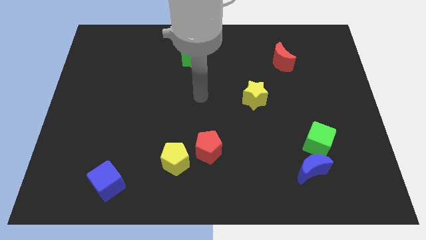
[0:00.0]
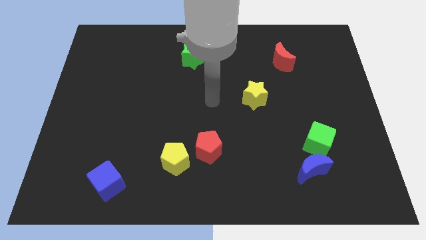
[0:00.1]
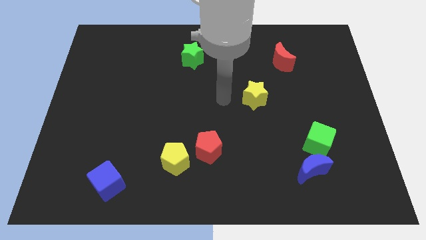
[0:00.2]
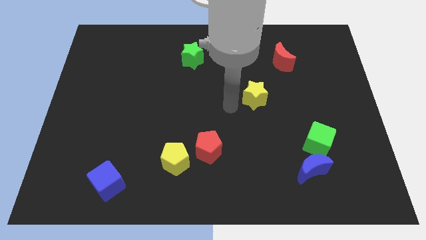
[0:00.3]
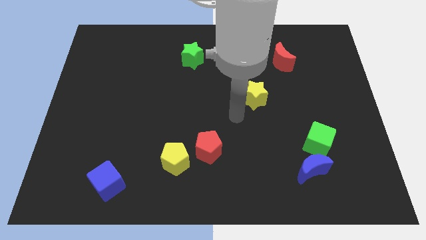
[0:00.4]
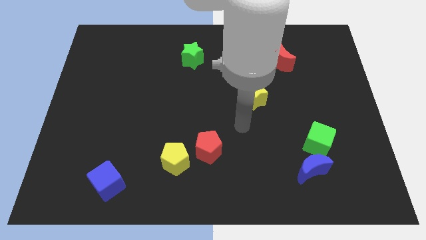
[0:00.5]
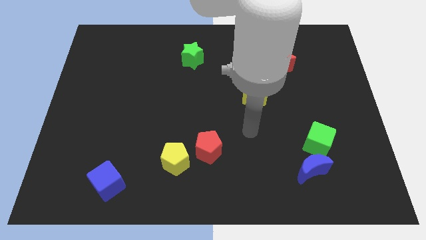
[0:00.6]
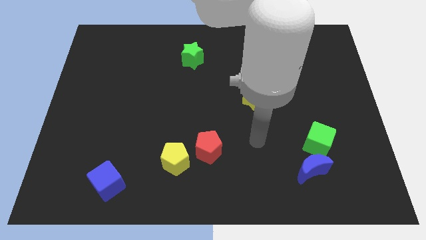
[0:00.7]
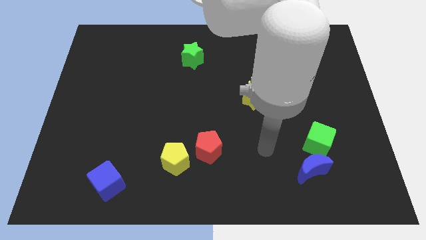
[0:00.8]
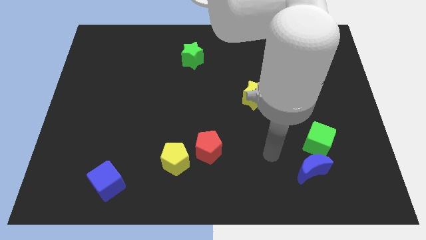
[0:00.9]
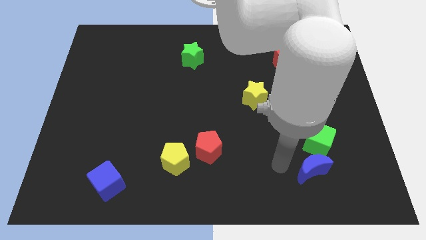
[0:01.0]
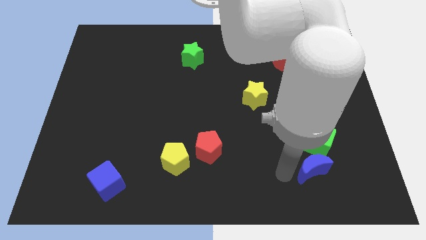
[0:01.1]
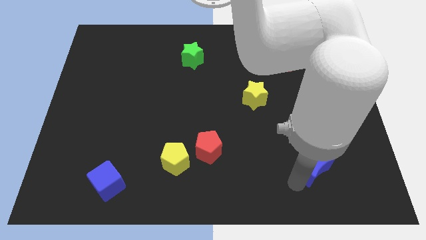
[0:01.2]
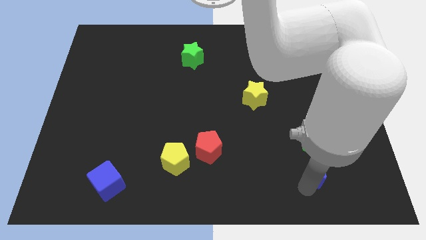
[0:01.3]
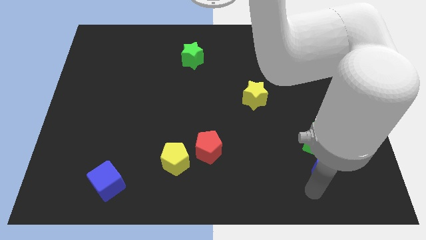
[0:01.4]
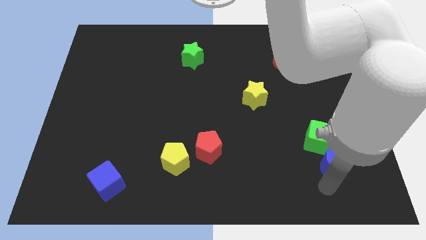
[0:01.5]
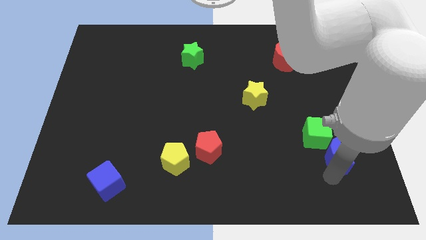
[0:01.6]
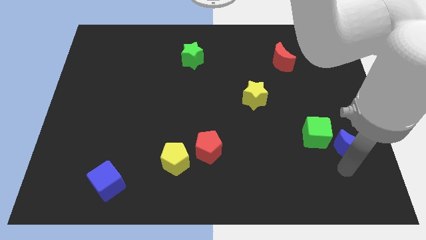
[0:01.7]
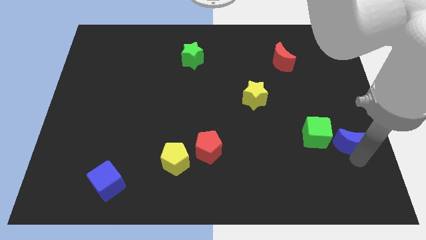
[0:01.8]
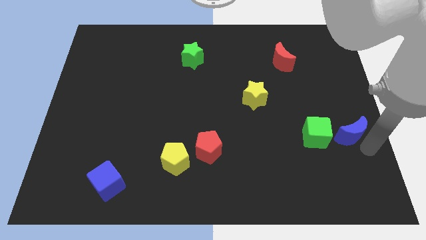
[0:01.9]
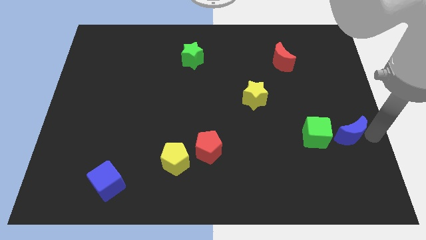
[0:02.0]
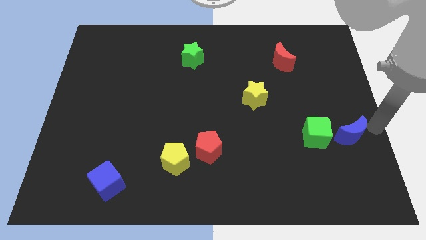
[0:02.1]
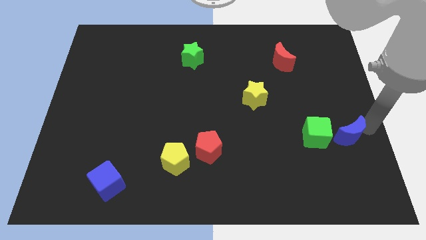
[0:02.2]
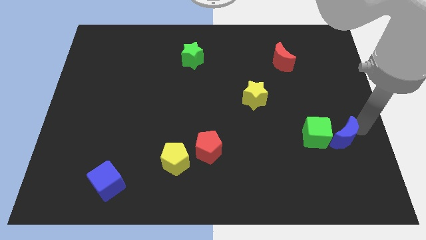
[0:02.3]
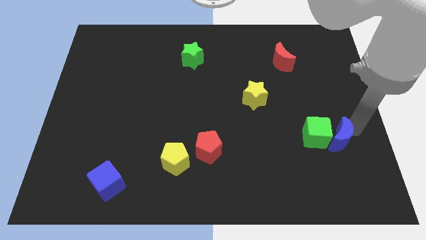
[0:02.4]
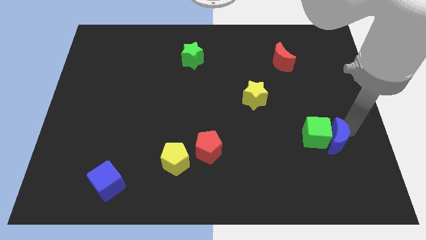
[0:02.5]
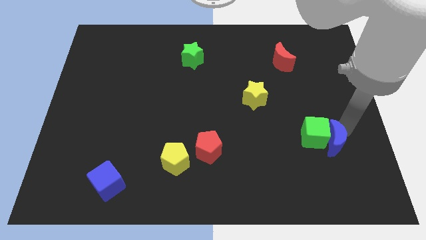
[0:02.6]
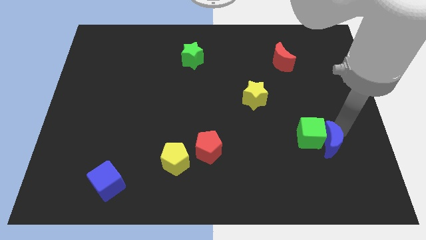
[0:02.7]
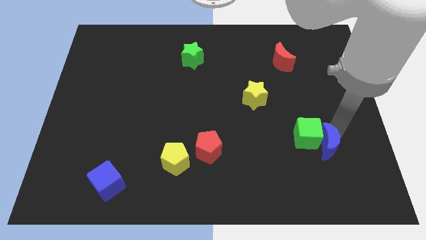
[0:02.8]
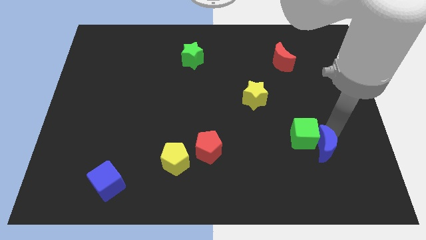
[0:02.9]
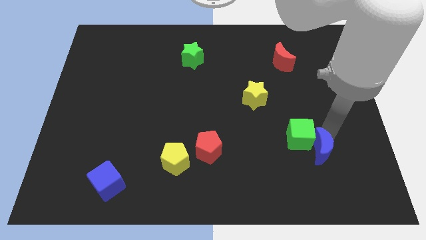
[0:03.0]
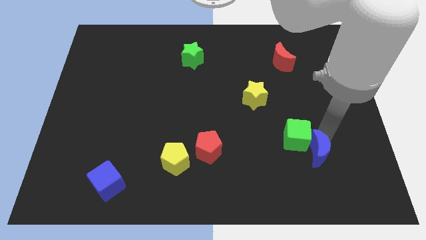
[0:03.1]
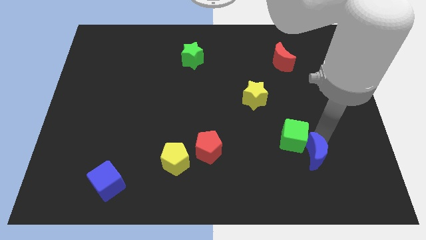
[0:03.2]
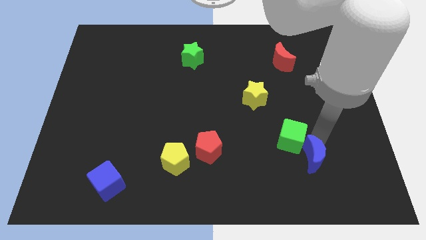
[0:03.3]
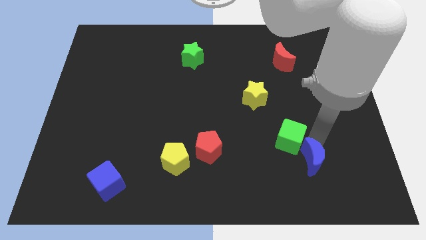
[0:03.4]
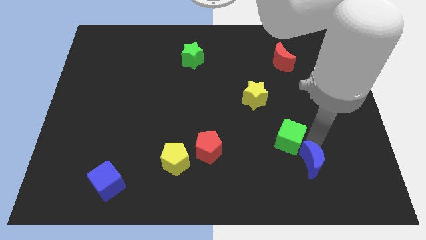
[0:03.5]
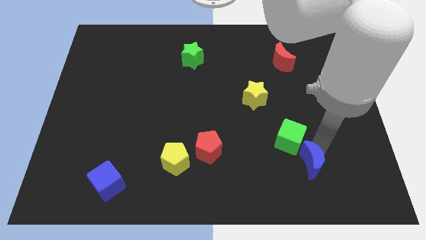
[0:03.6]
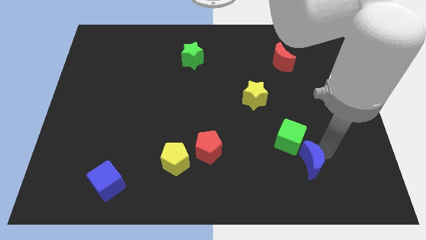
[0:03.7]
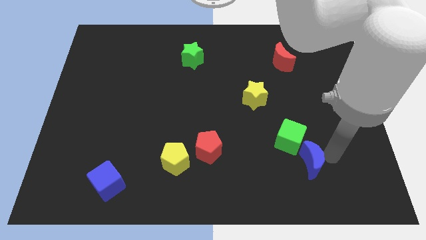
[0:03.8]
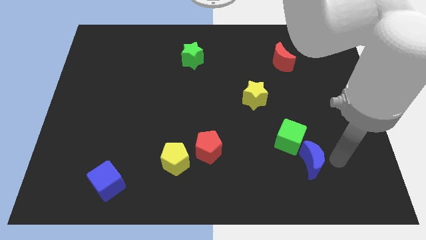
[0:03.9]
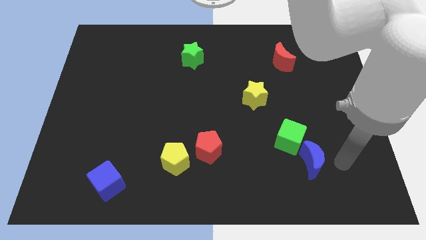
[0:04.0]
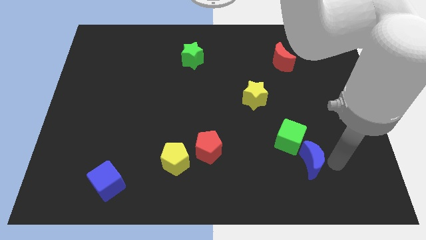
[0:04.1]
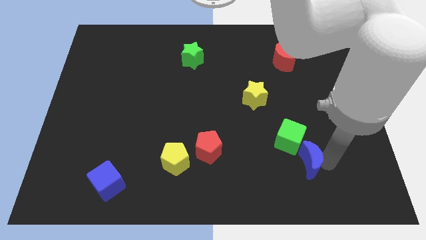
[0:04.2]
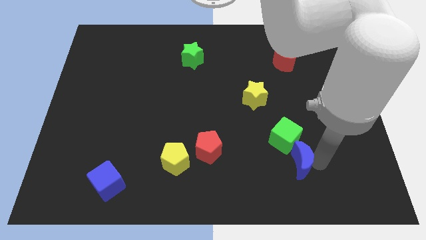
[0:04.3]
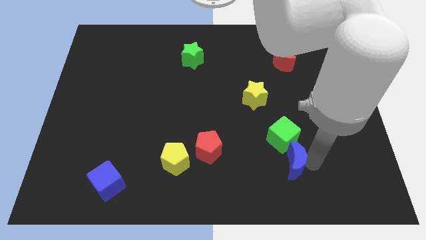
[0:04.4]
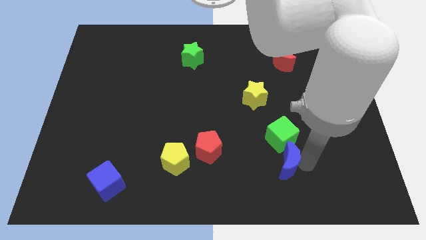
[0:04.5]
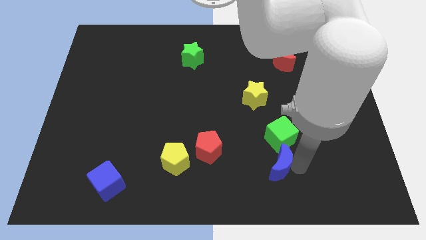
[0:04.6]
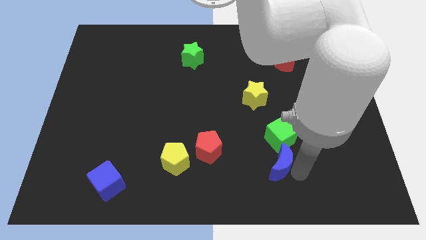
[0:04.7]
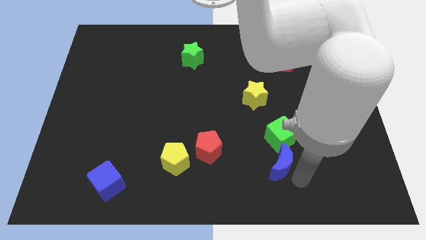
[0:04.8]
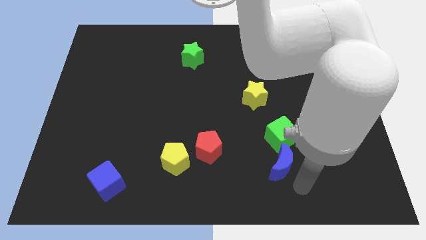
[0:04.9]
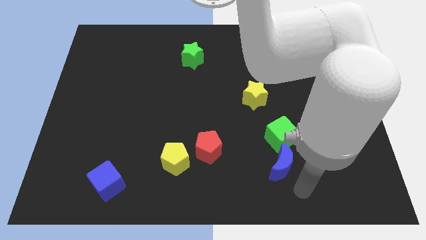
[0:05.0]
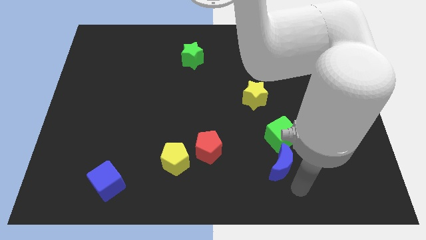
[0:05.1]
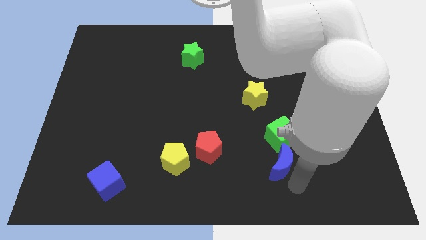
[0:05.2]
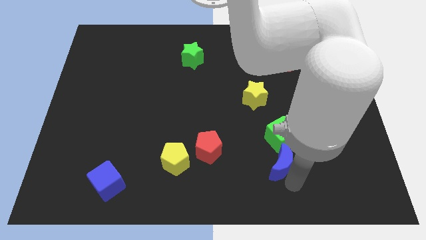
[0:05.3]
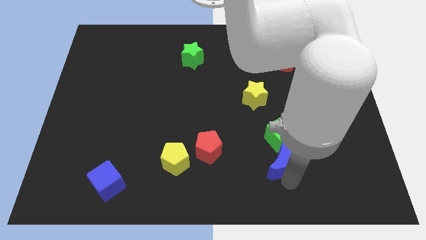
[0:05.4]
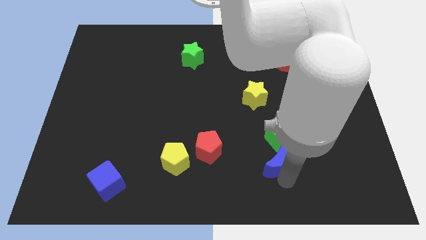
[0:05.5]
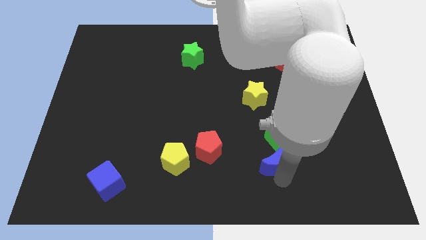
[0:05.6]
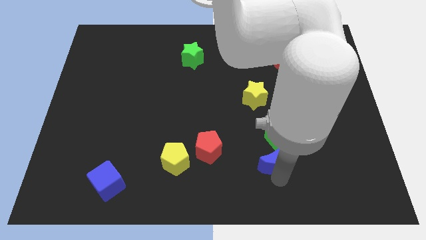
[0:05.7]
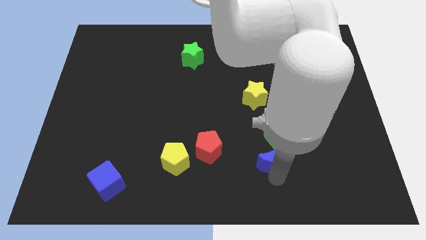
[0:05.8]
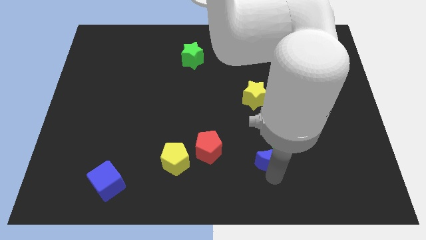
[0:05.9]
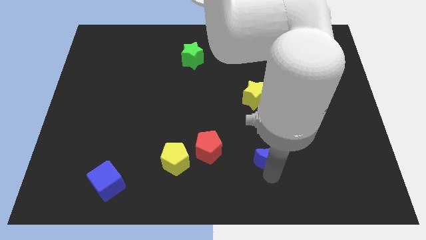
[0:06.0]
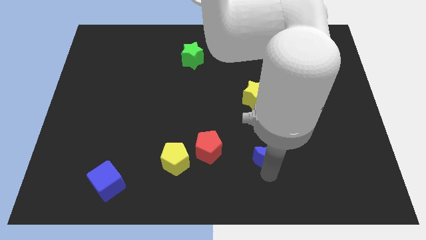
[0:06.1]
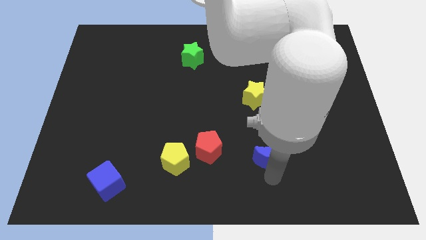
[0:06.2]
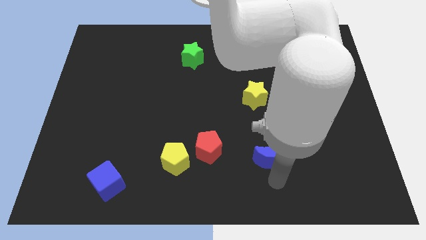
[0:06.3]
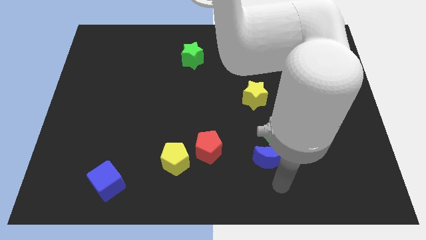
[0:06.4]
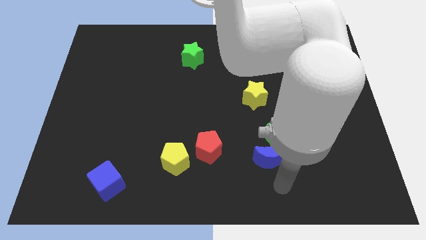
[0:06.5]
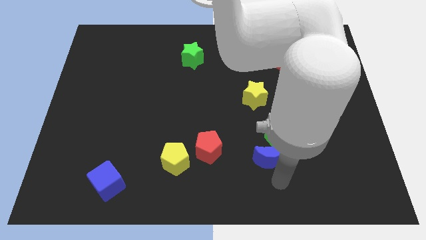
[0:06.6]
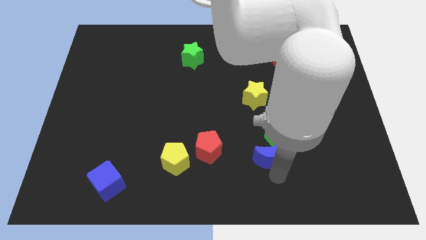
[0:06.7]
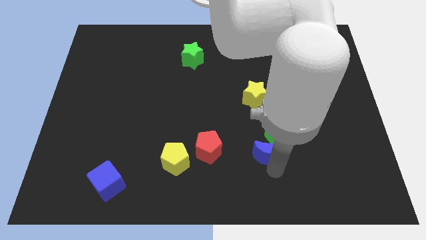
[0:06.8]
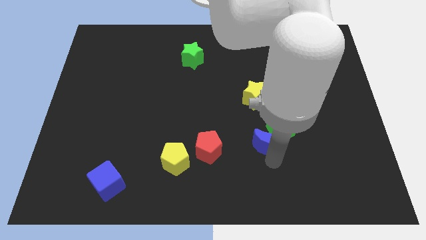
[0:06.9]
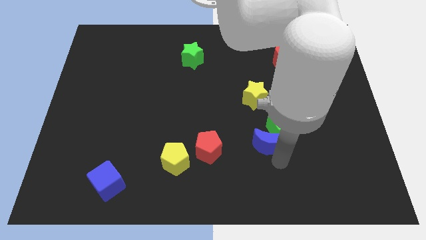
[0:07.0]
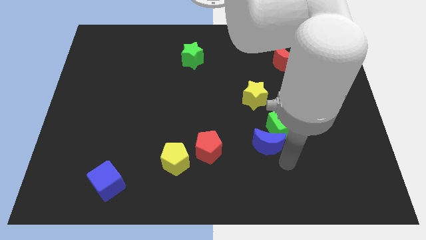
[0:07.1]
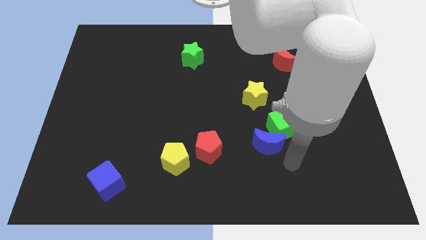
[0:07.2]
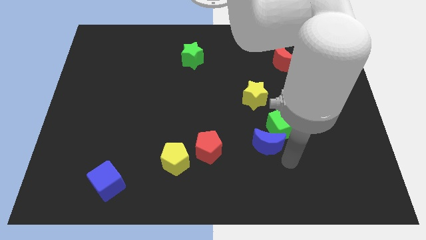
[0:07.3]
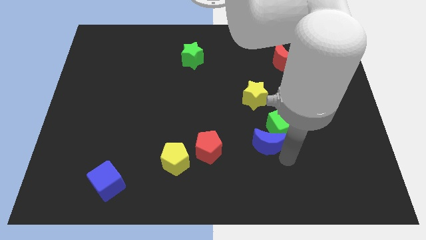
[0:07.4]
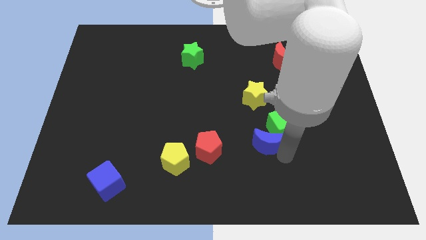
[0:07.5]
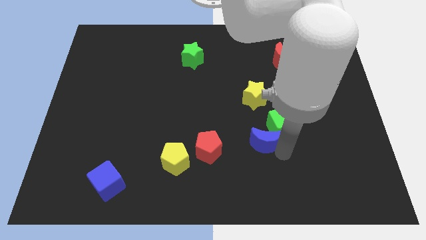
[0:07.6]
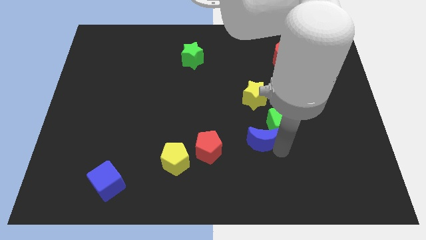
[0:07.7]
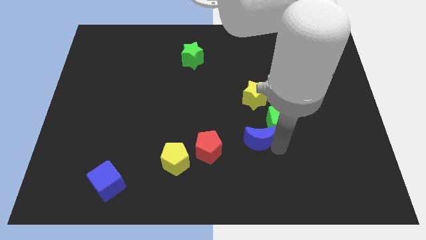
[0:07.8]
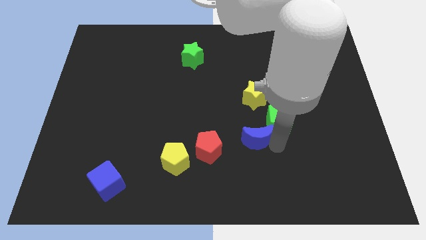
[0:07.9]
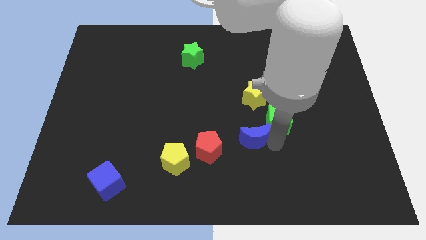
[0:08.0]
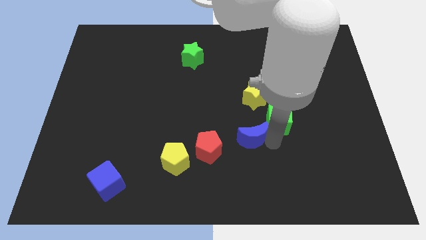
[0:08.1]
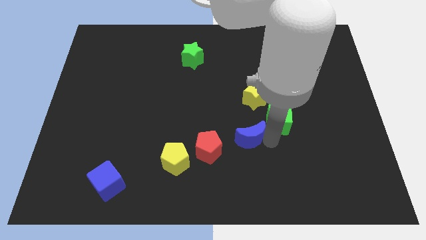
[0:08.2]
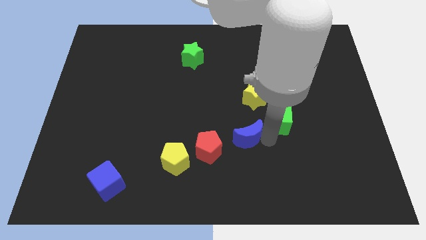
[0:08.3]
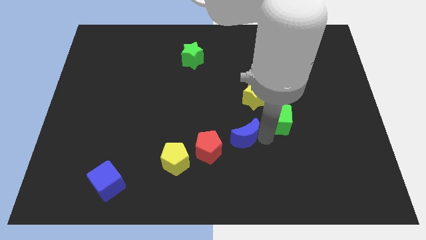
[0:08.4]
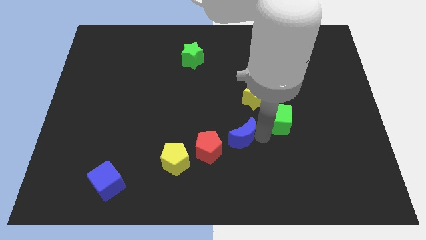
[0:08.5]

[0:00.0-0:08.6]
slide the blue moon to the middle of the board
